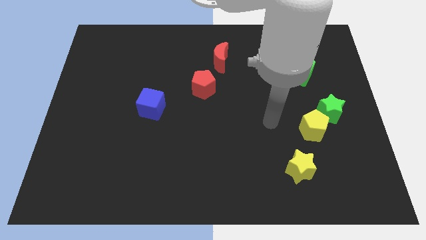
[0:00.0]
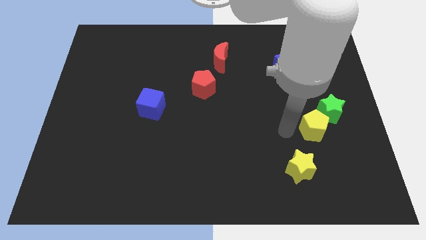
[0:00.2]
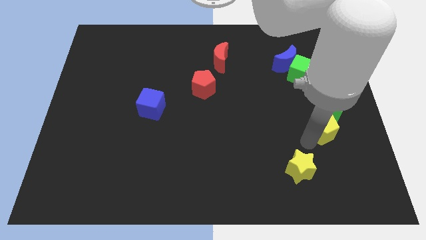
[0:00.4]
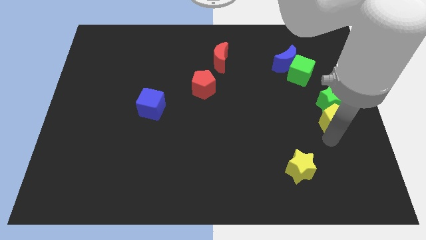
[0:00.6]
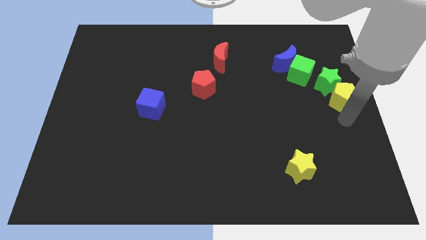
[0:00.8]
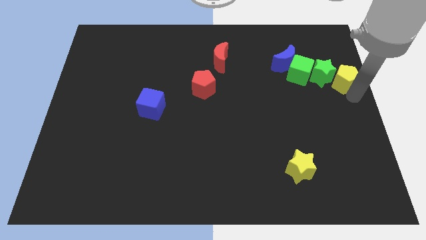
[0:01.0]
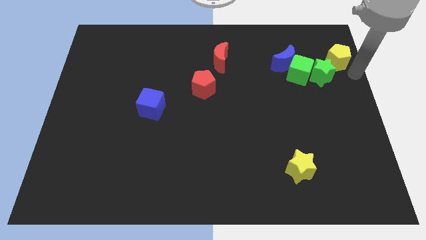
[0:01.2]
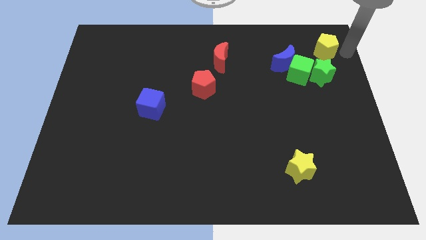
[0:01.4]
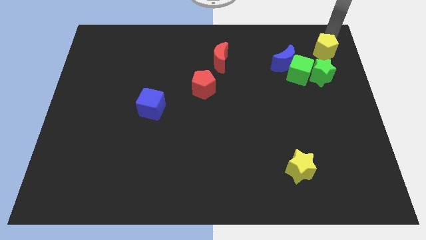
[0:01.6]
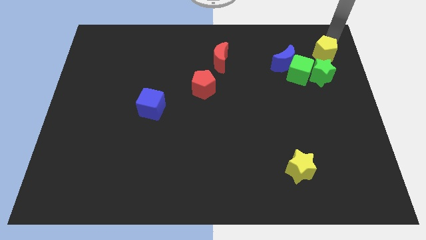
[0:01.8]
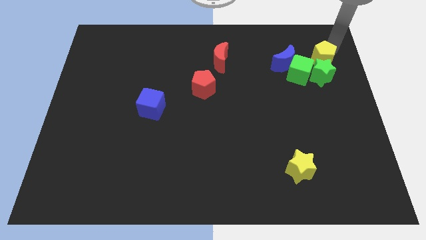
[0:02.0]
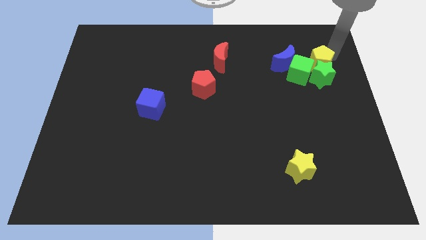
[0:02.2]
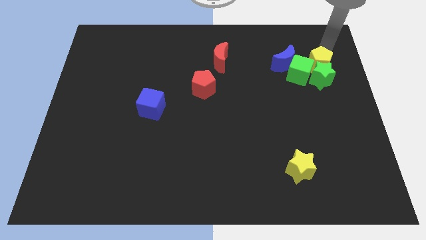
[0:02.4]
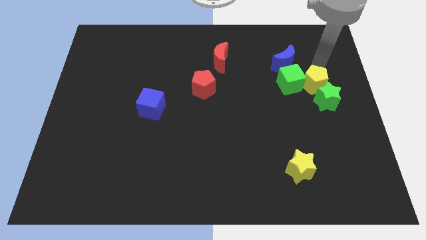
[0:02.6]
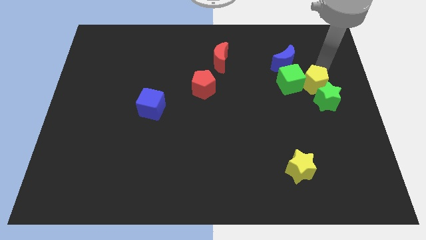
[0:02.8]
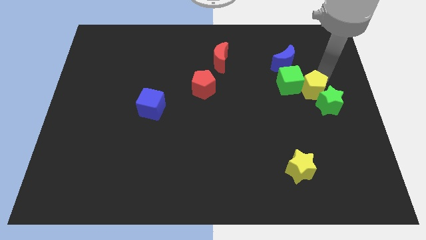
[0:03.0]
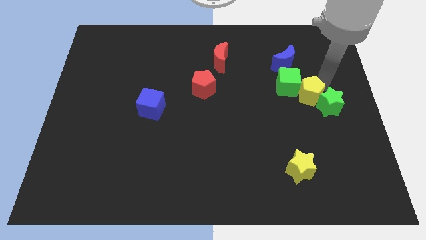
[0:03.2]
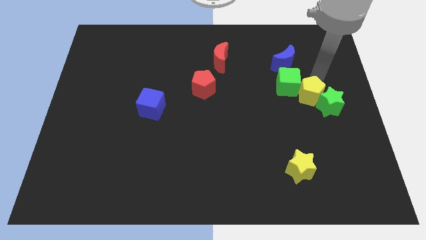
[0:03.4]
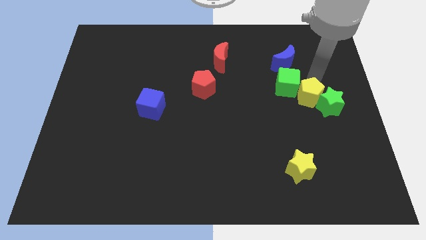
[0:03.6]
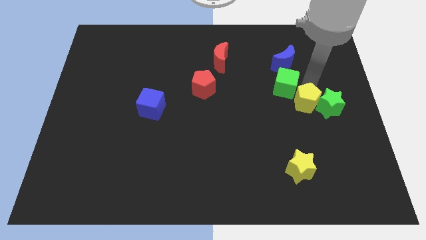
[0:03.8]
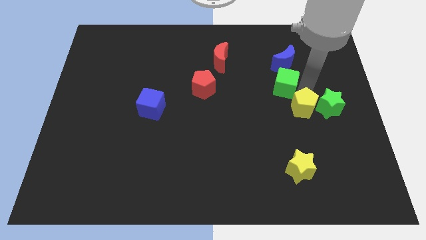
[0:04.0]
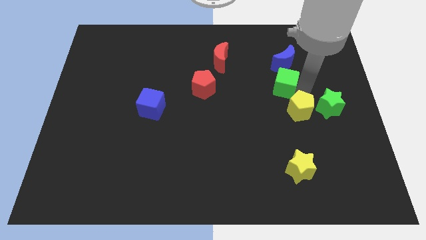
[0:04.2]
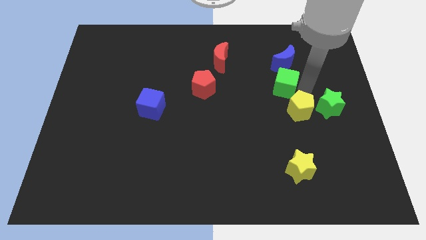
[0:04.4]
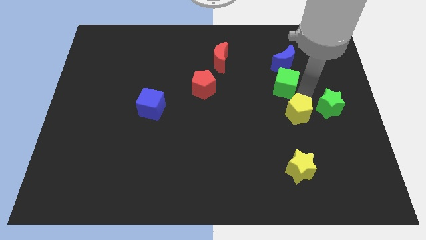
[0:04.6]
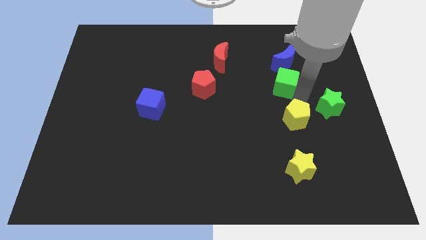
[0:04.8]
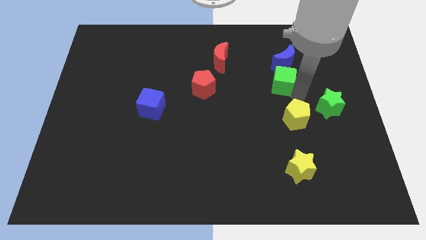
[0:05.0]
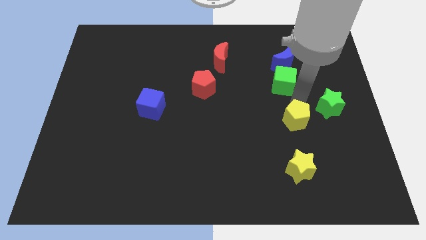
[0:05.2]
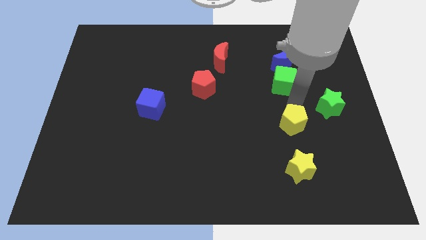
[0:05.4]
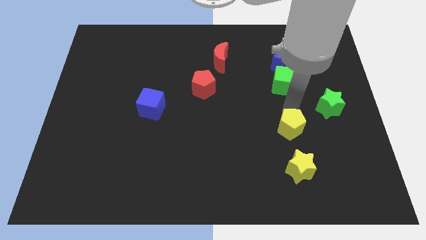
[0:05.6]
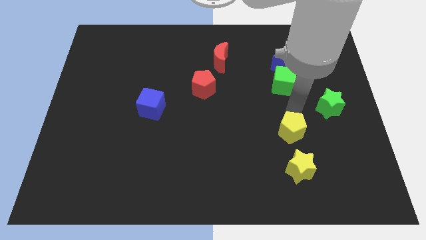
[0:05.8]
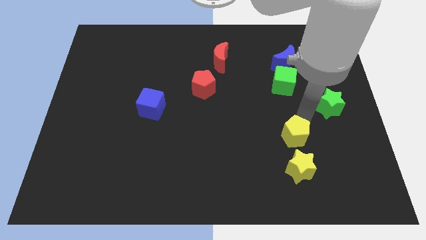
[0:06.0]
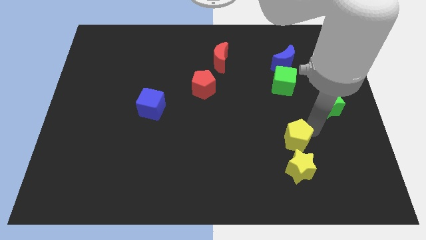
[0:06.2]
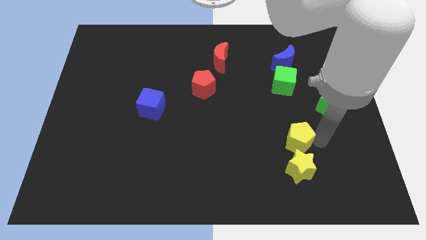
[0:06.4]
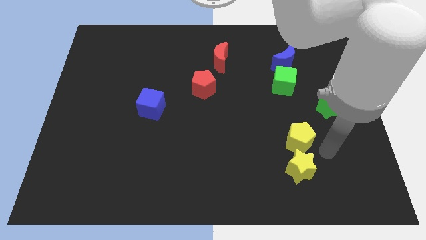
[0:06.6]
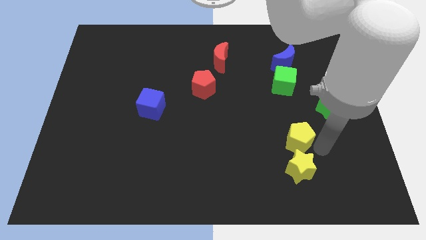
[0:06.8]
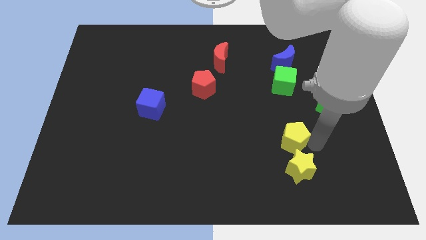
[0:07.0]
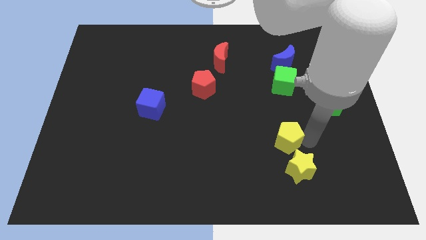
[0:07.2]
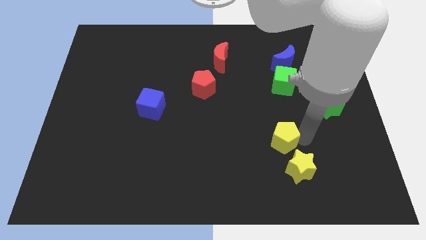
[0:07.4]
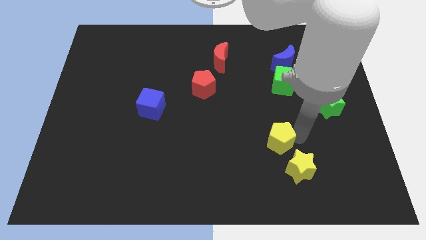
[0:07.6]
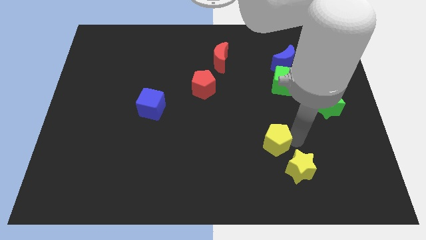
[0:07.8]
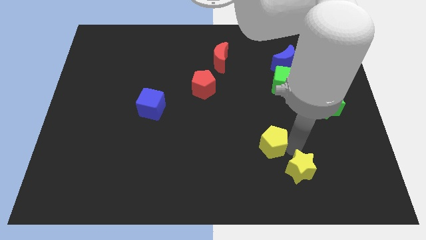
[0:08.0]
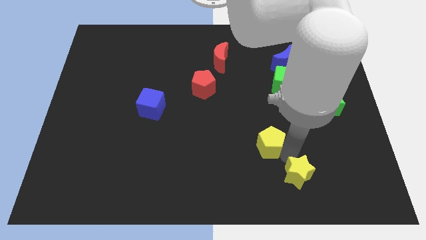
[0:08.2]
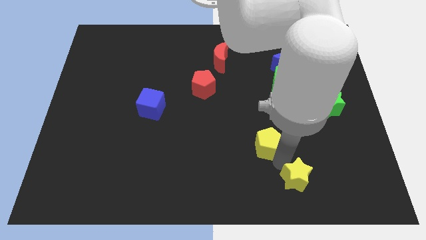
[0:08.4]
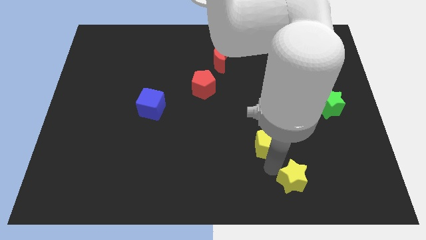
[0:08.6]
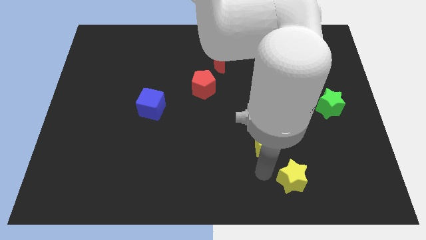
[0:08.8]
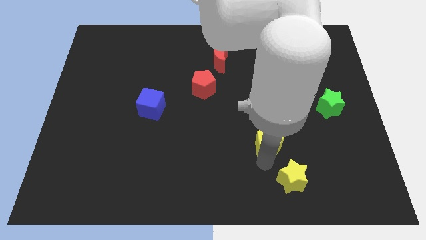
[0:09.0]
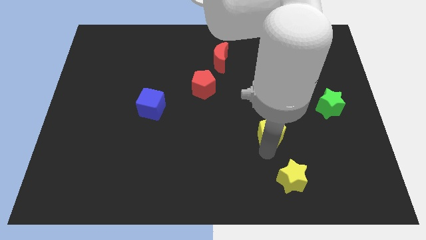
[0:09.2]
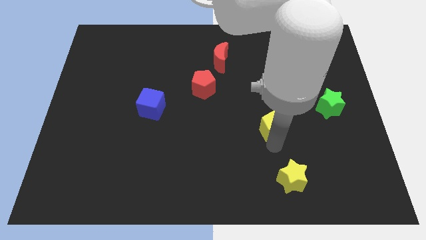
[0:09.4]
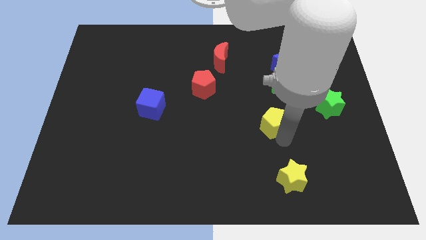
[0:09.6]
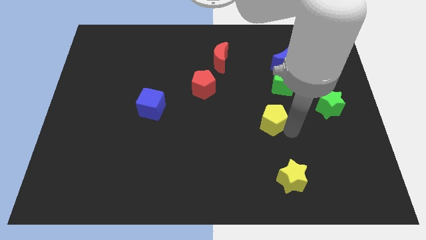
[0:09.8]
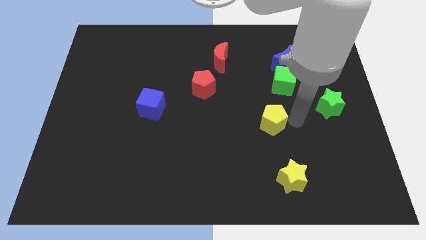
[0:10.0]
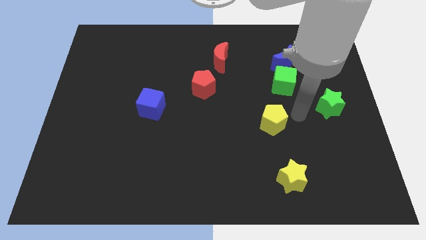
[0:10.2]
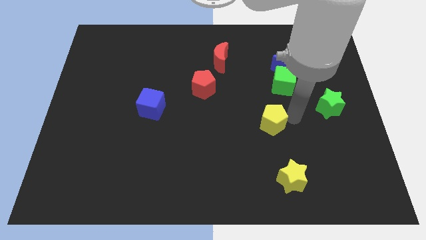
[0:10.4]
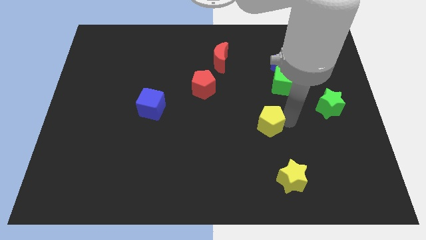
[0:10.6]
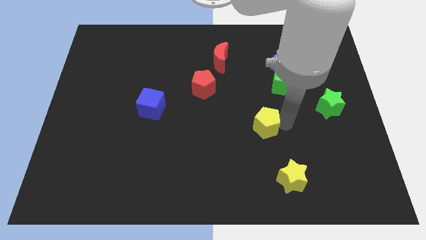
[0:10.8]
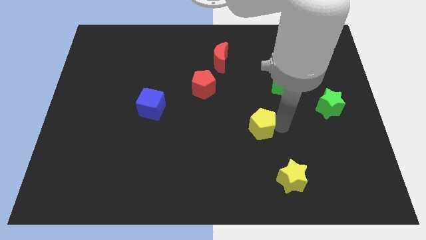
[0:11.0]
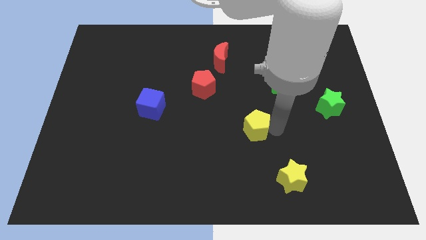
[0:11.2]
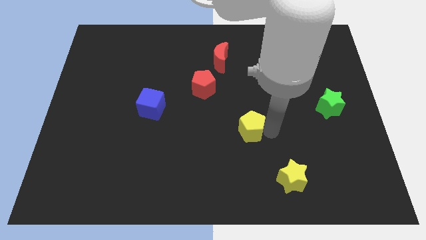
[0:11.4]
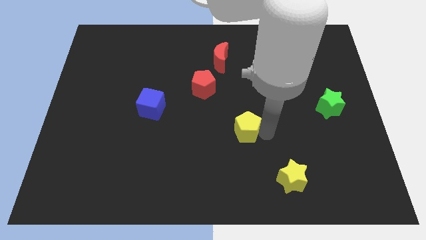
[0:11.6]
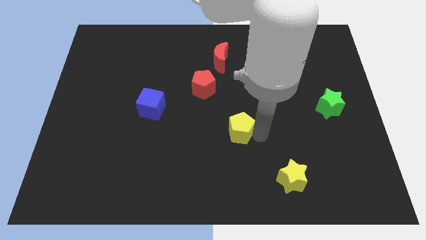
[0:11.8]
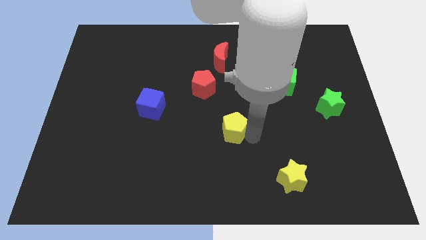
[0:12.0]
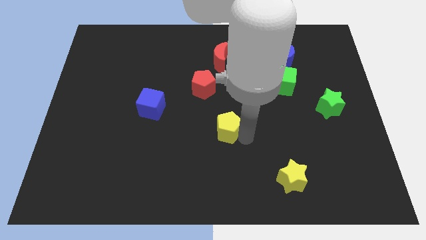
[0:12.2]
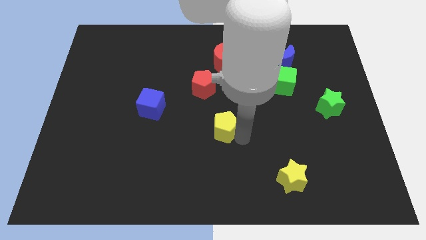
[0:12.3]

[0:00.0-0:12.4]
push the yellow pentagon to the left

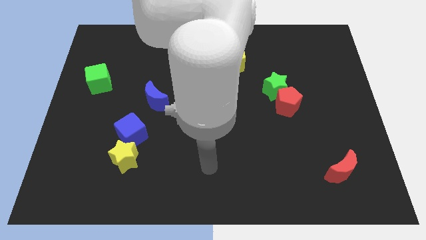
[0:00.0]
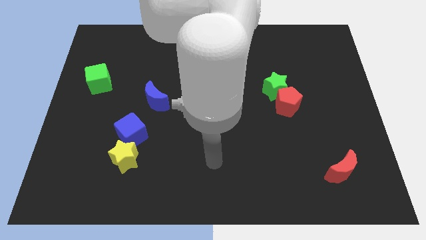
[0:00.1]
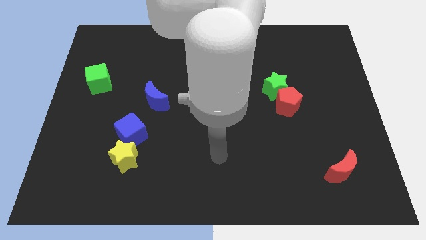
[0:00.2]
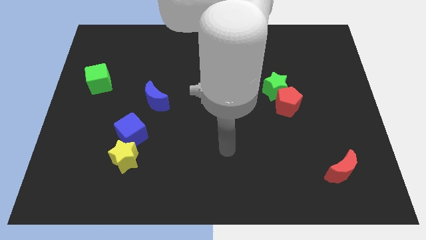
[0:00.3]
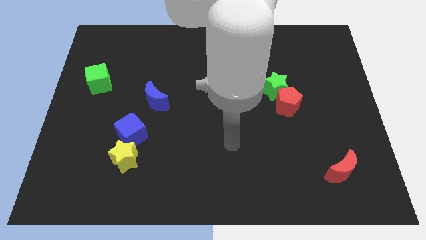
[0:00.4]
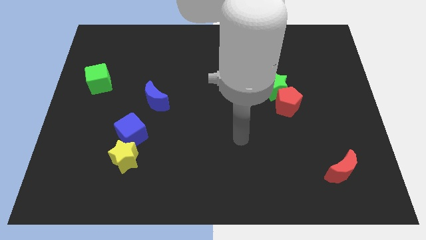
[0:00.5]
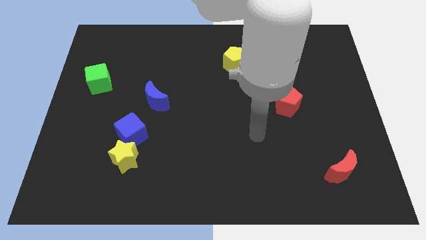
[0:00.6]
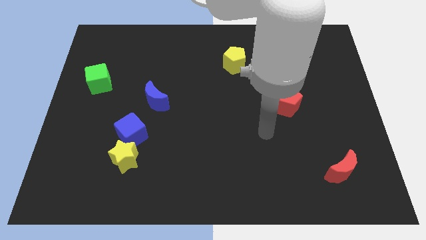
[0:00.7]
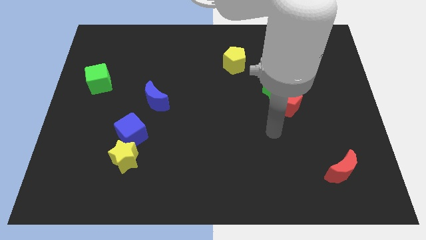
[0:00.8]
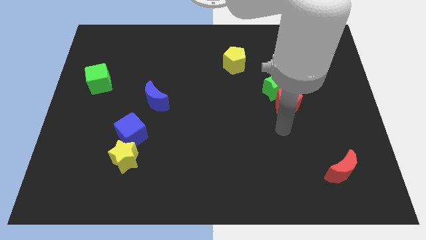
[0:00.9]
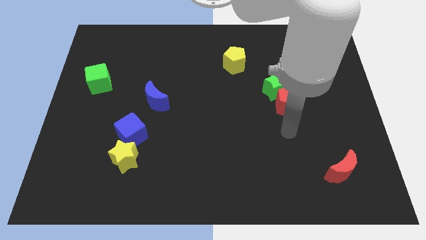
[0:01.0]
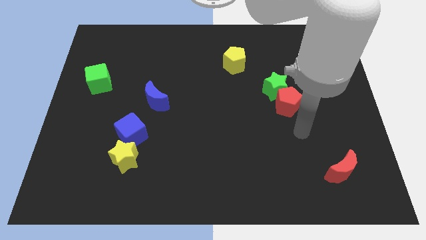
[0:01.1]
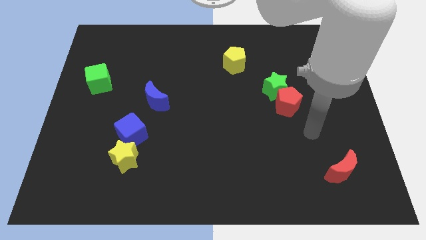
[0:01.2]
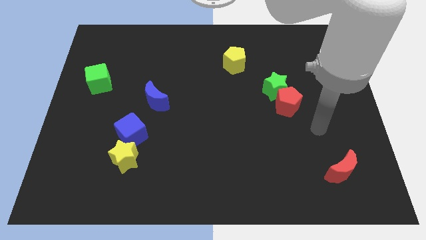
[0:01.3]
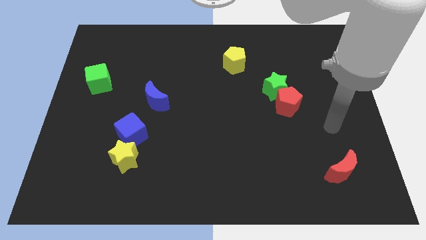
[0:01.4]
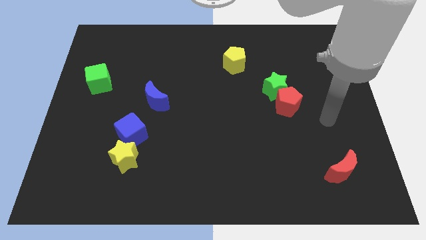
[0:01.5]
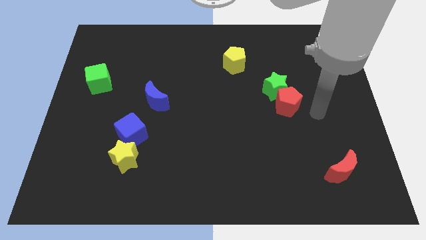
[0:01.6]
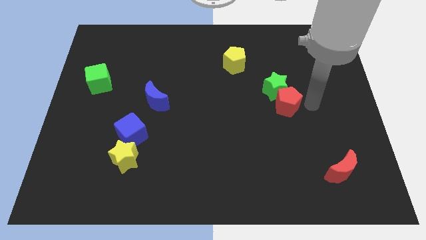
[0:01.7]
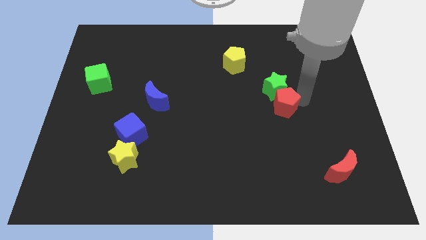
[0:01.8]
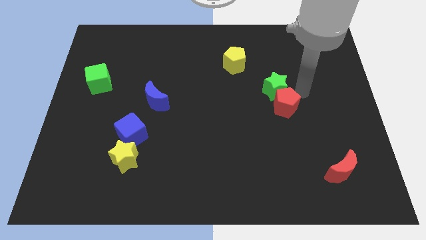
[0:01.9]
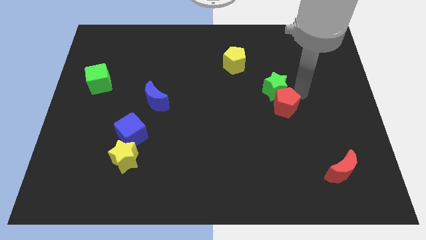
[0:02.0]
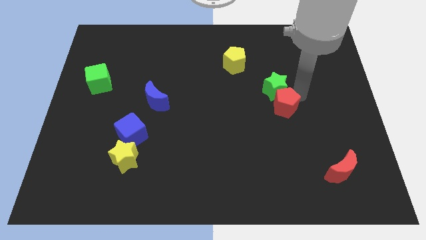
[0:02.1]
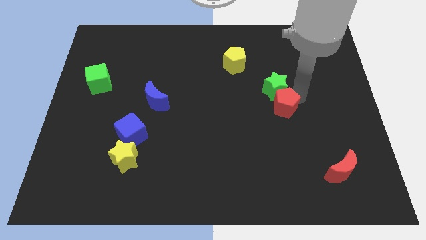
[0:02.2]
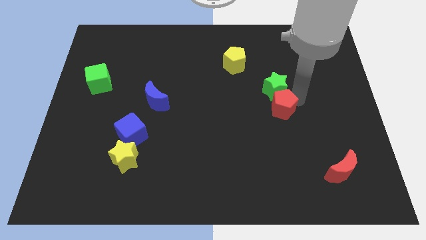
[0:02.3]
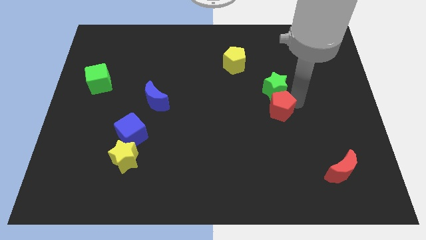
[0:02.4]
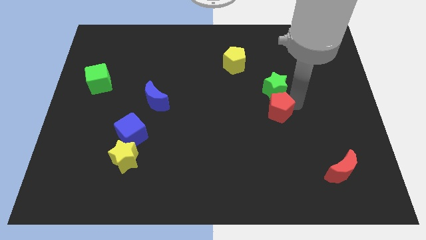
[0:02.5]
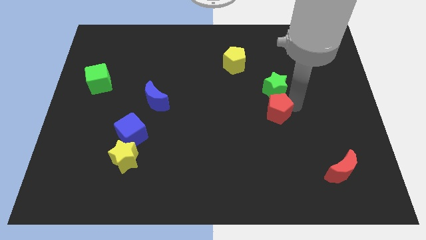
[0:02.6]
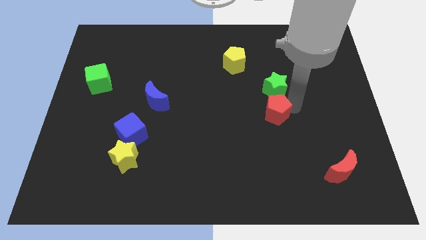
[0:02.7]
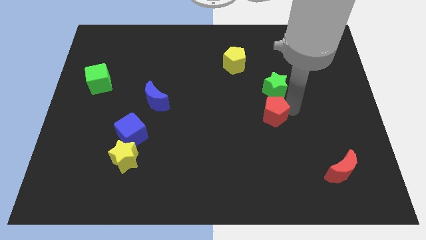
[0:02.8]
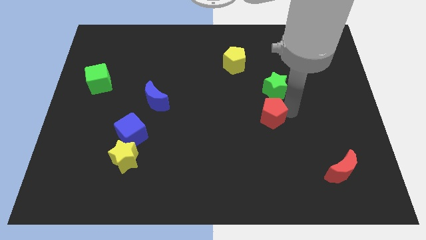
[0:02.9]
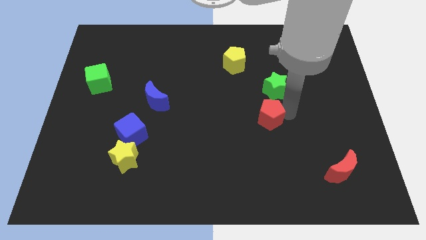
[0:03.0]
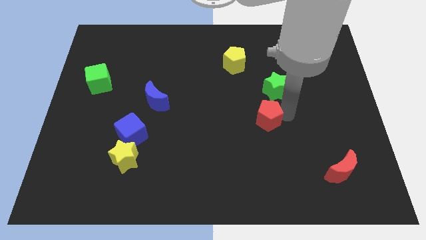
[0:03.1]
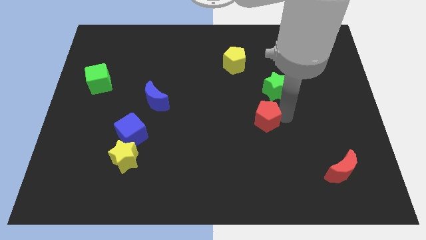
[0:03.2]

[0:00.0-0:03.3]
slightly push the red pentagon diagonally down and to the left
